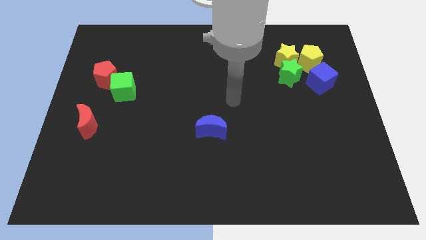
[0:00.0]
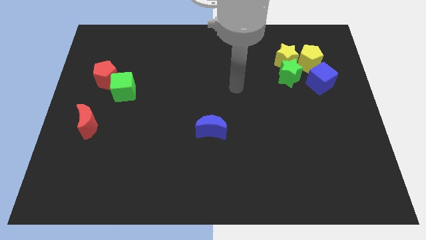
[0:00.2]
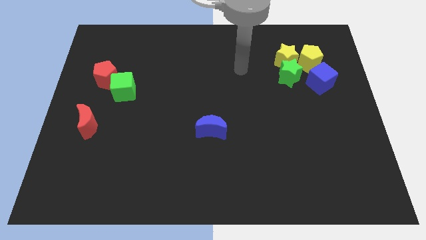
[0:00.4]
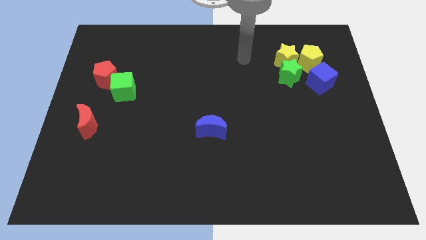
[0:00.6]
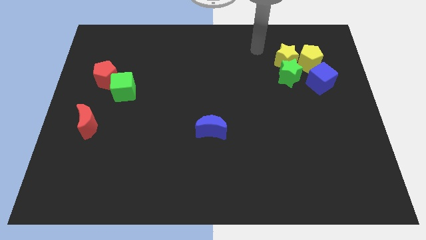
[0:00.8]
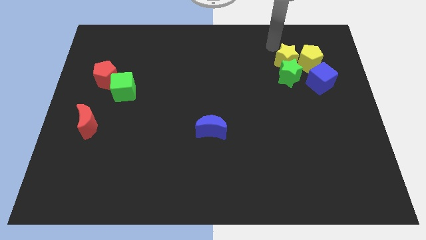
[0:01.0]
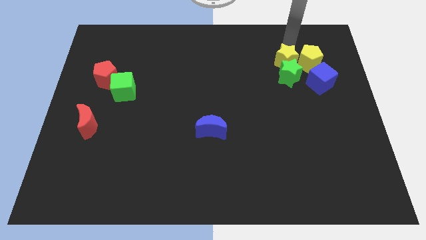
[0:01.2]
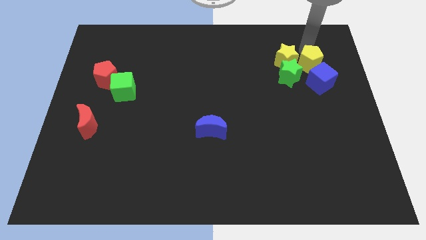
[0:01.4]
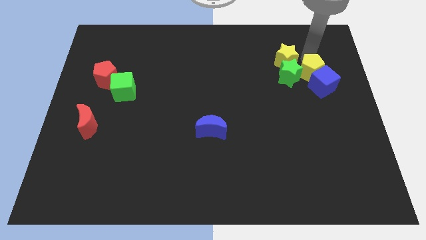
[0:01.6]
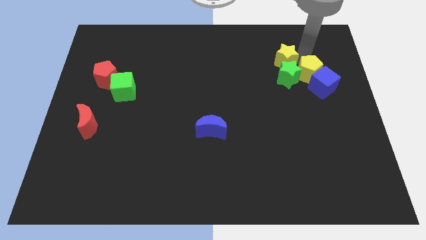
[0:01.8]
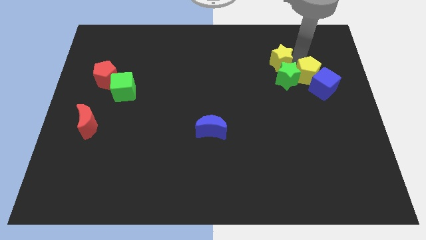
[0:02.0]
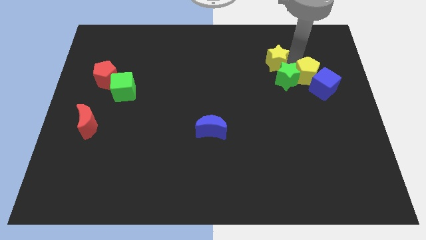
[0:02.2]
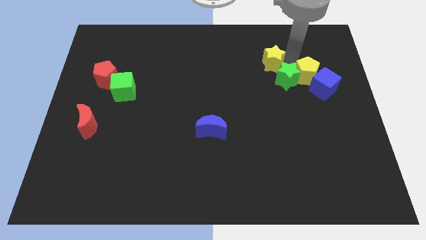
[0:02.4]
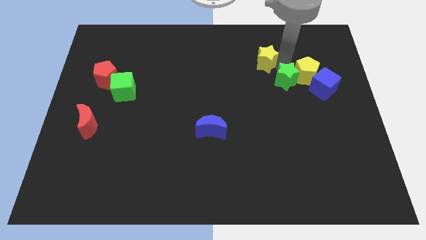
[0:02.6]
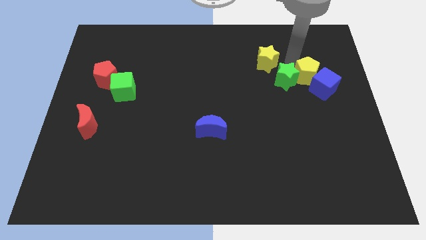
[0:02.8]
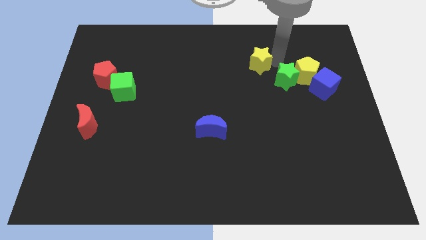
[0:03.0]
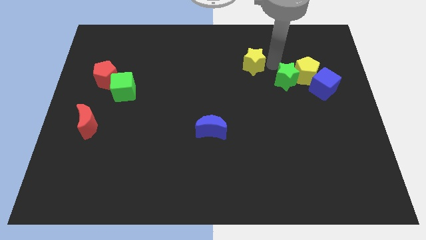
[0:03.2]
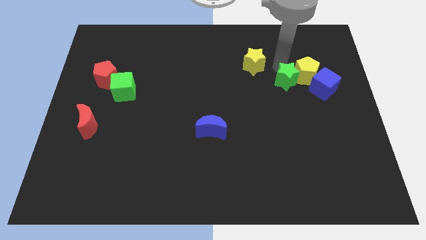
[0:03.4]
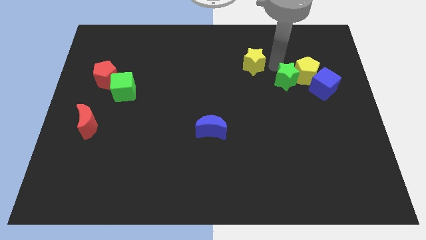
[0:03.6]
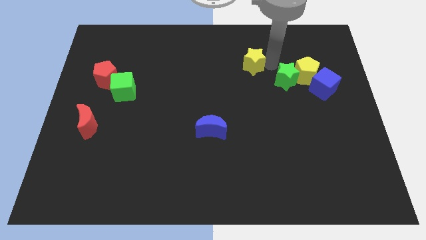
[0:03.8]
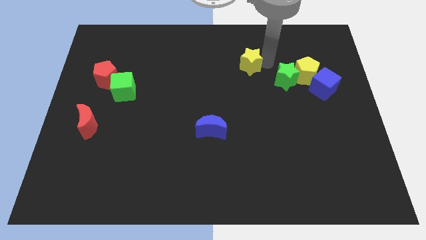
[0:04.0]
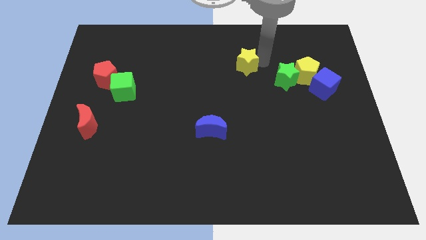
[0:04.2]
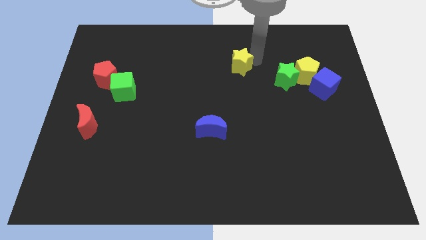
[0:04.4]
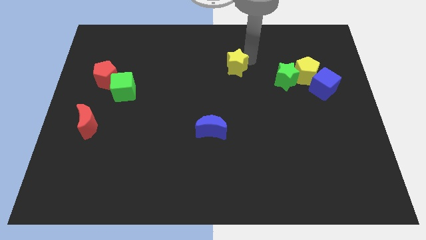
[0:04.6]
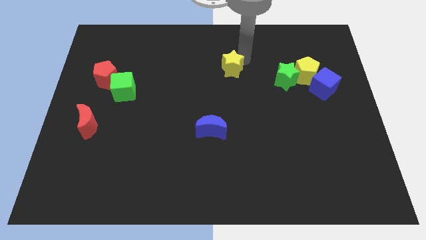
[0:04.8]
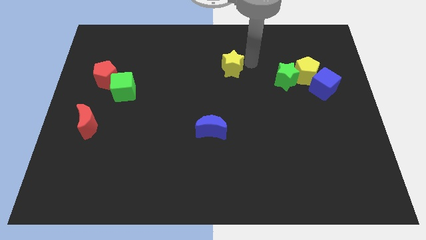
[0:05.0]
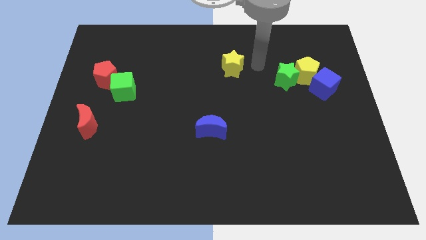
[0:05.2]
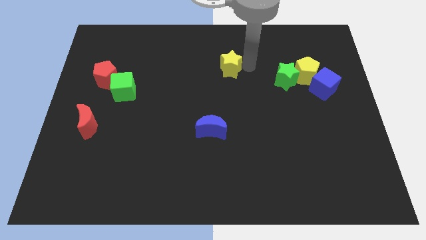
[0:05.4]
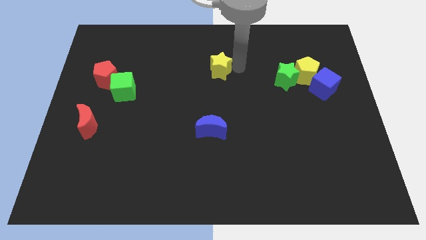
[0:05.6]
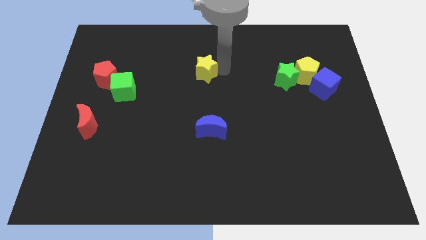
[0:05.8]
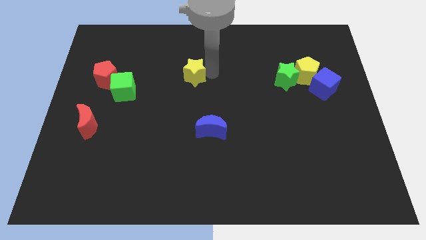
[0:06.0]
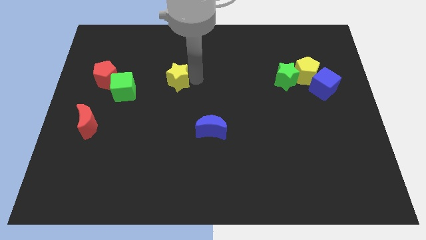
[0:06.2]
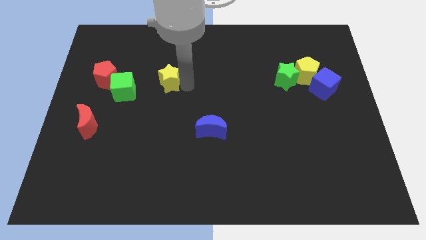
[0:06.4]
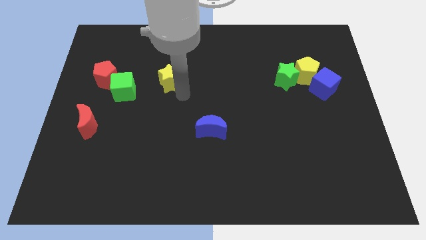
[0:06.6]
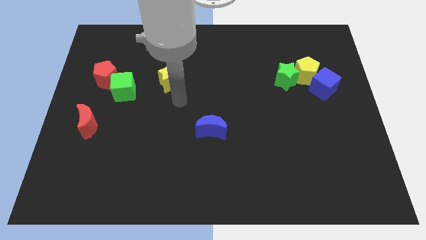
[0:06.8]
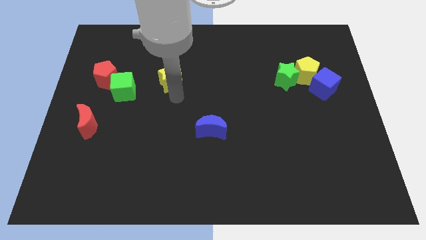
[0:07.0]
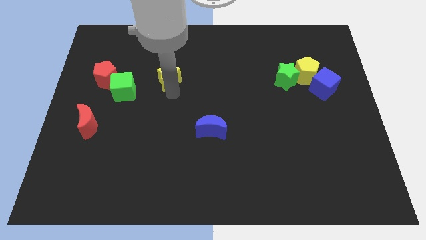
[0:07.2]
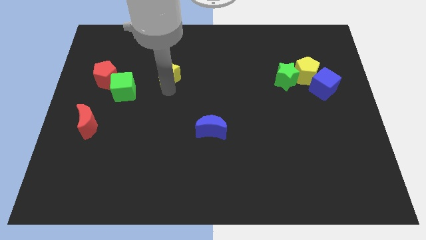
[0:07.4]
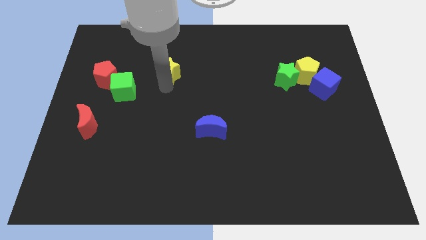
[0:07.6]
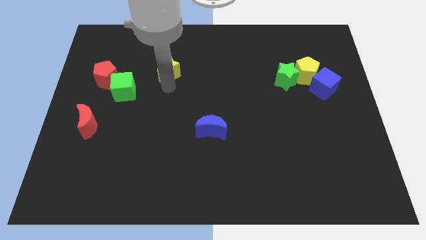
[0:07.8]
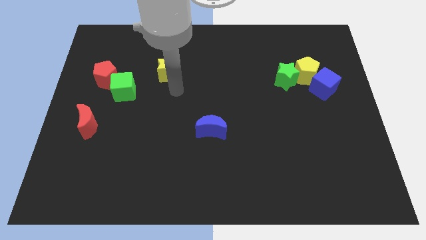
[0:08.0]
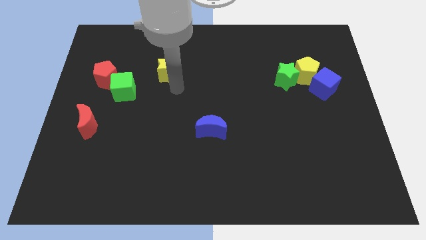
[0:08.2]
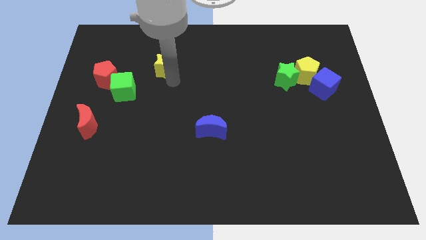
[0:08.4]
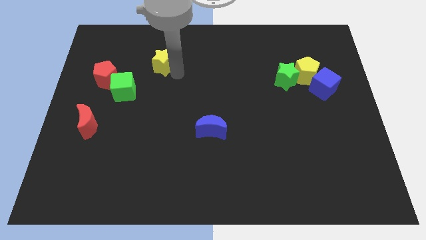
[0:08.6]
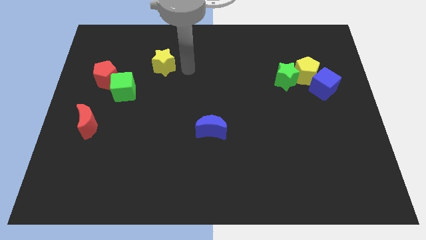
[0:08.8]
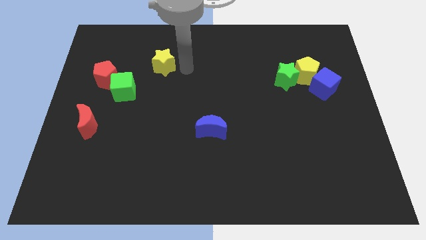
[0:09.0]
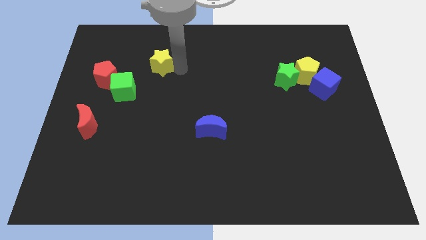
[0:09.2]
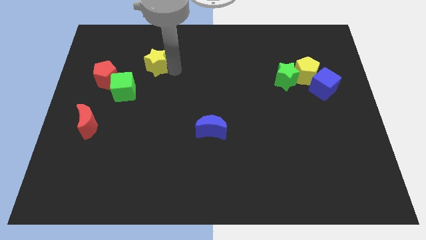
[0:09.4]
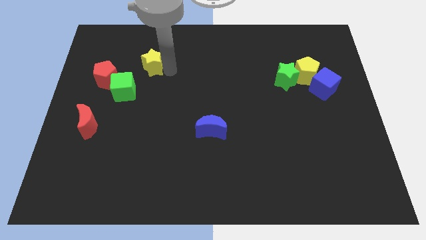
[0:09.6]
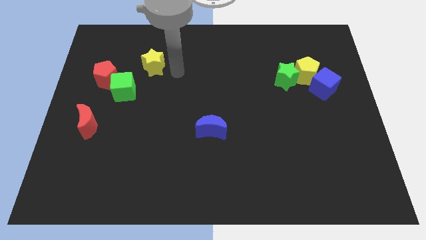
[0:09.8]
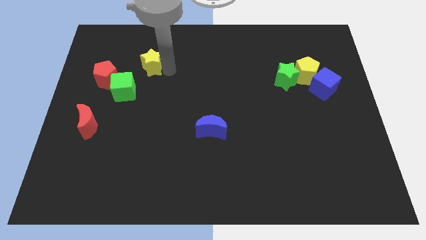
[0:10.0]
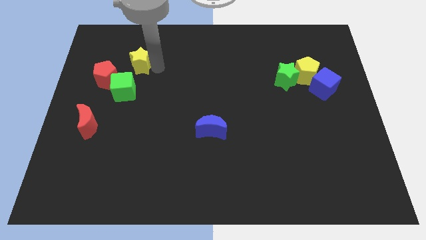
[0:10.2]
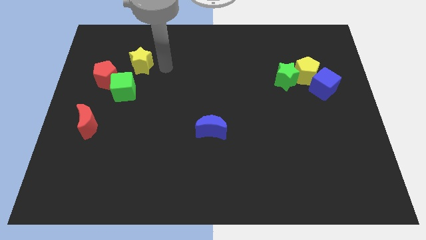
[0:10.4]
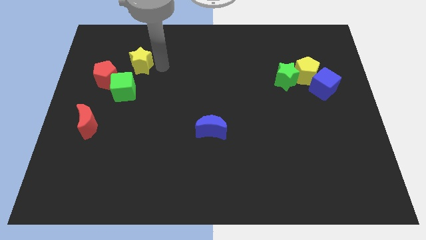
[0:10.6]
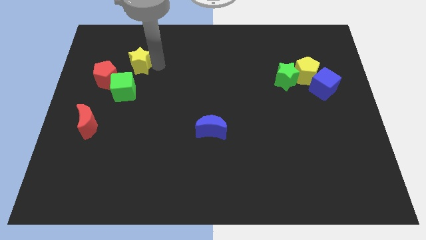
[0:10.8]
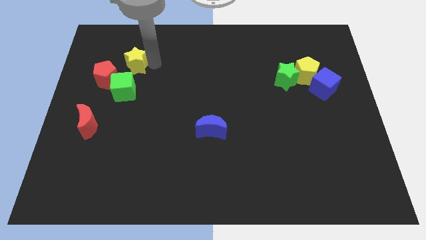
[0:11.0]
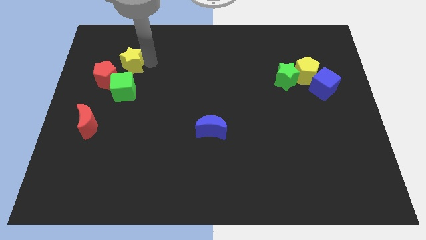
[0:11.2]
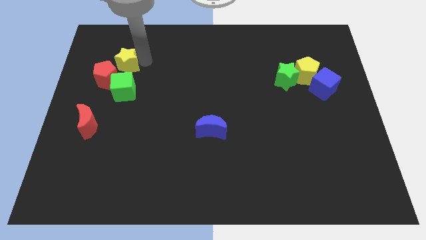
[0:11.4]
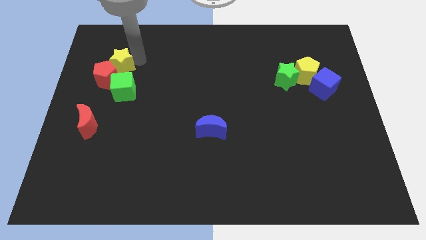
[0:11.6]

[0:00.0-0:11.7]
put the yellow star diagonally up and to the left of the green cube

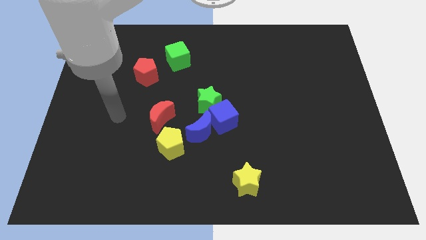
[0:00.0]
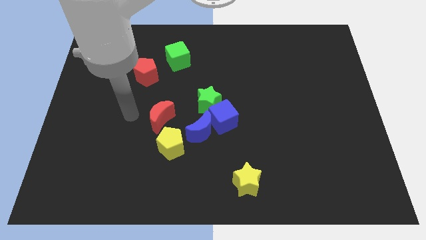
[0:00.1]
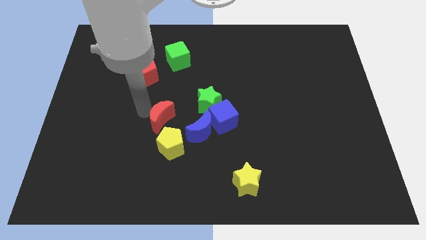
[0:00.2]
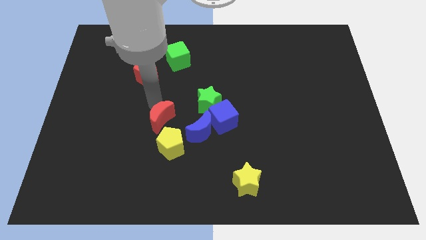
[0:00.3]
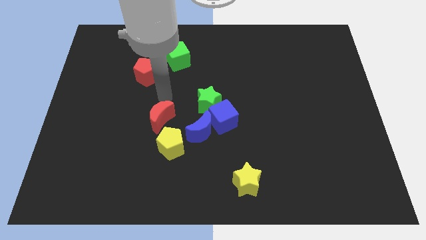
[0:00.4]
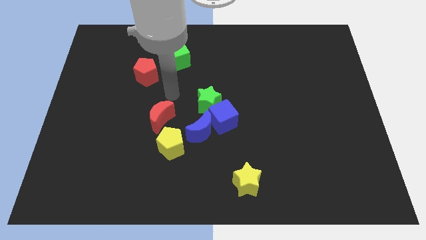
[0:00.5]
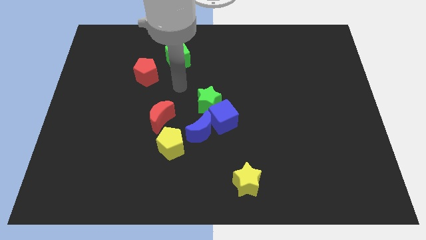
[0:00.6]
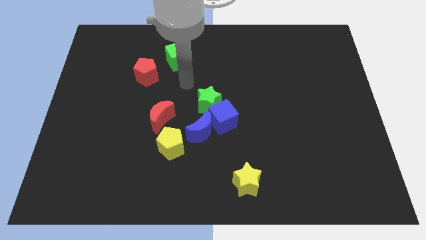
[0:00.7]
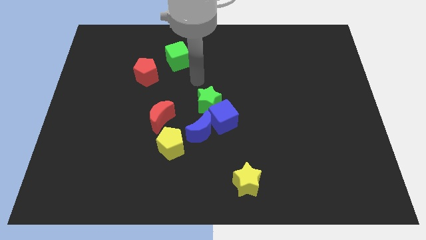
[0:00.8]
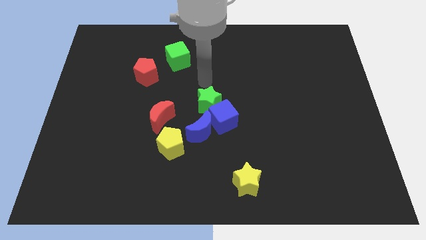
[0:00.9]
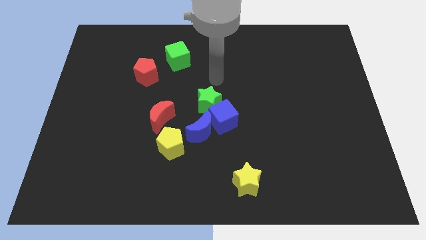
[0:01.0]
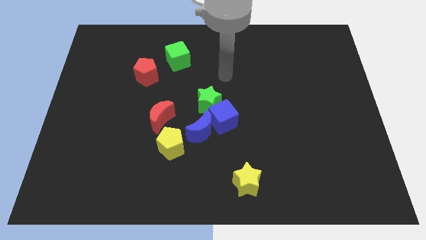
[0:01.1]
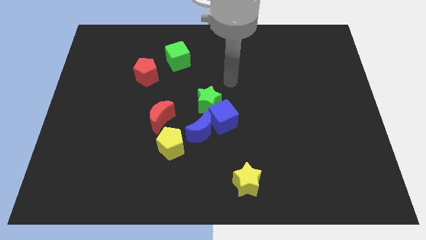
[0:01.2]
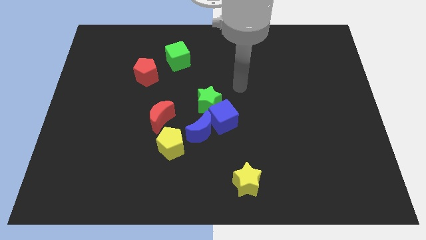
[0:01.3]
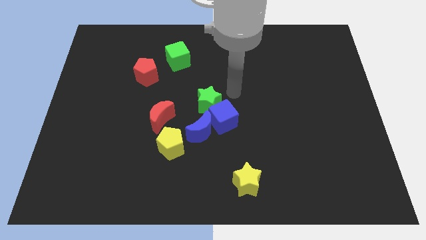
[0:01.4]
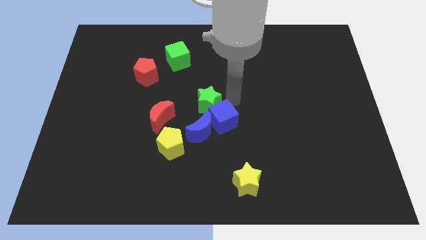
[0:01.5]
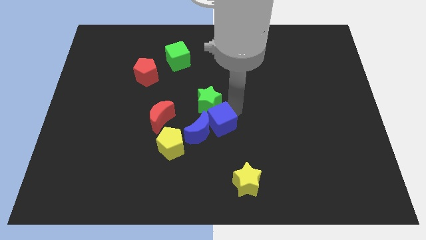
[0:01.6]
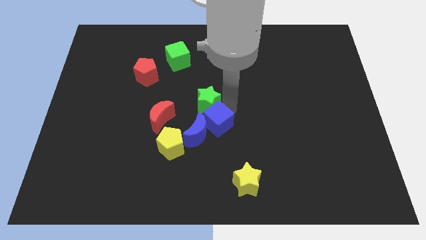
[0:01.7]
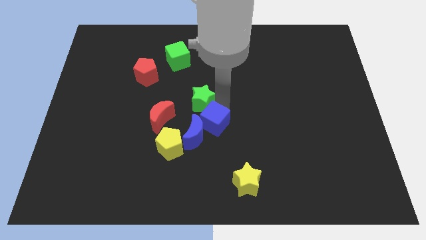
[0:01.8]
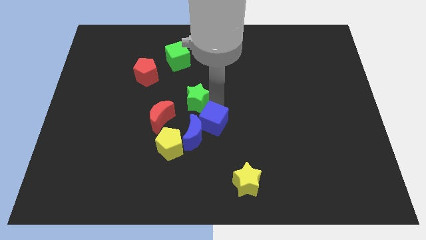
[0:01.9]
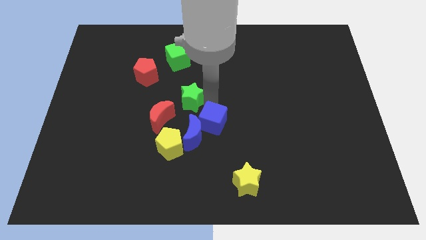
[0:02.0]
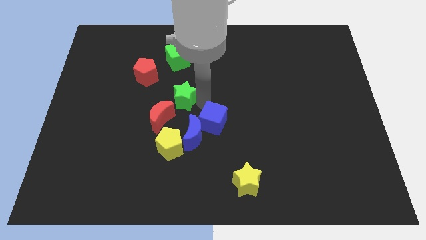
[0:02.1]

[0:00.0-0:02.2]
slide the green star diagonally down and to the right of the red pentagon
